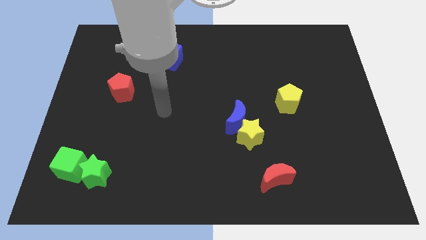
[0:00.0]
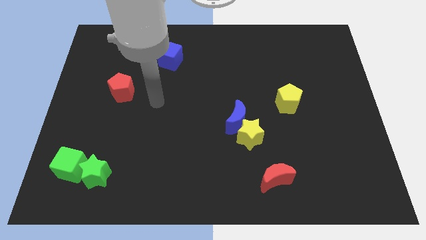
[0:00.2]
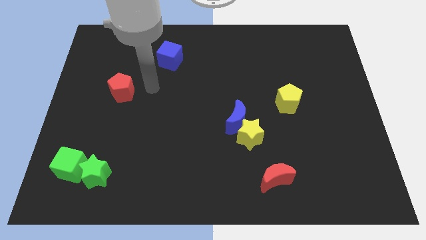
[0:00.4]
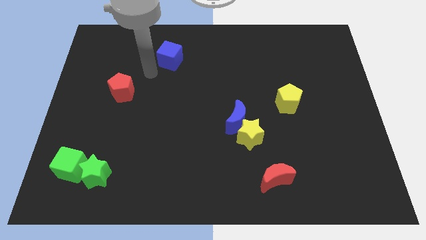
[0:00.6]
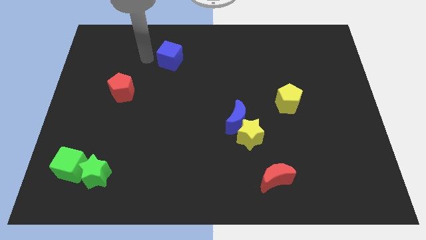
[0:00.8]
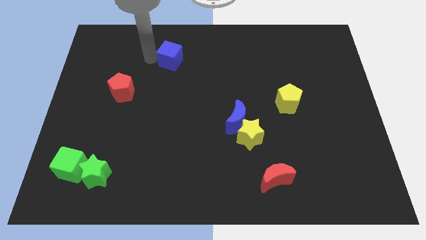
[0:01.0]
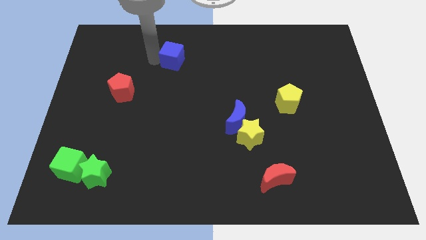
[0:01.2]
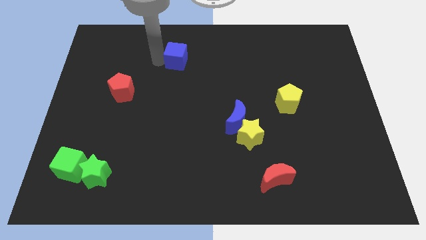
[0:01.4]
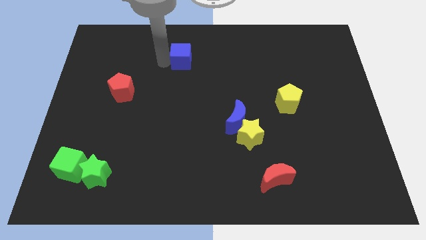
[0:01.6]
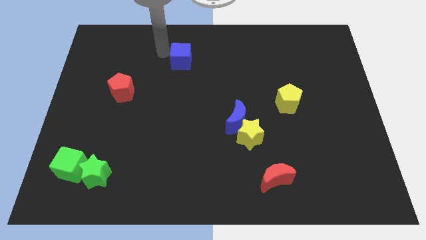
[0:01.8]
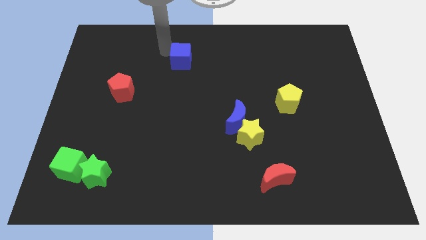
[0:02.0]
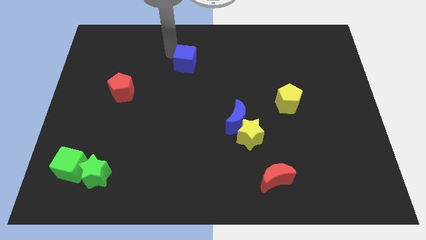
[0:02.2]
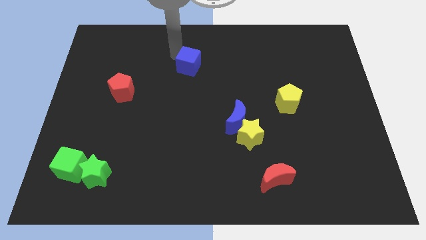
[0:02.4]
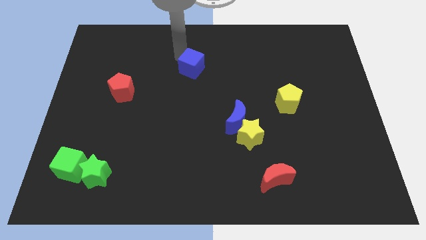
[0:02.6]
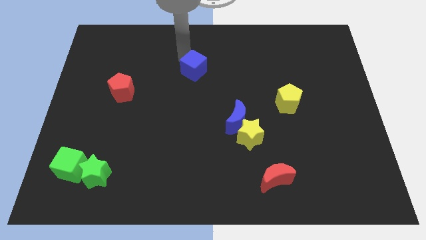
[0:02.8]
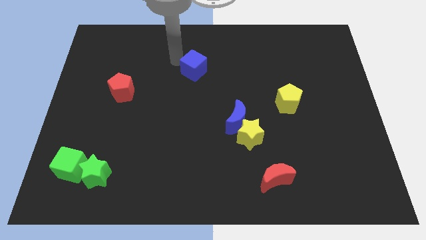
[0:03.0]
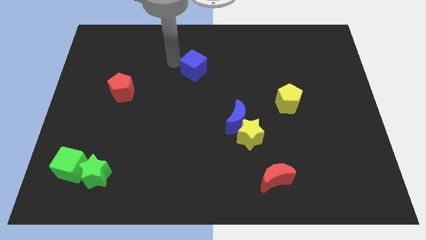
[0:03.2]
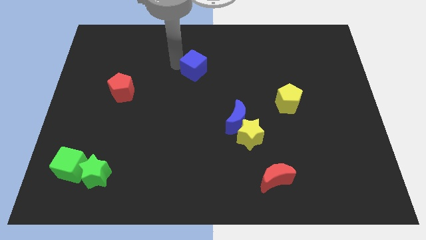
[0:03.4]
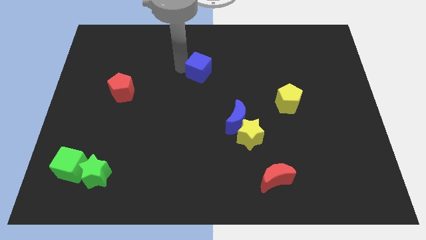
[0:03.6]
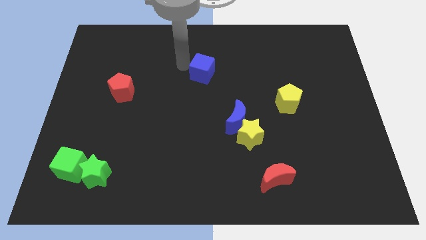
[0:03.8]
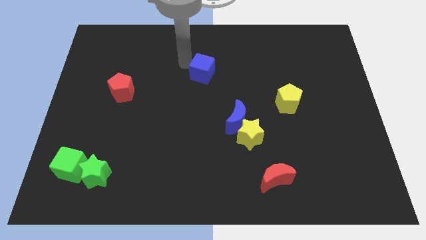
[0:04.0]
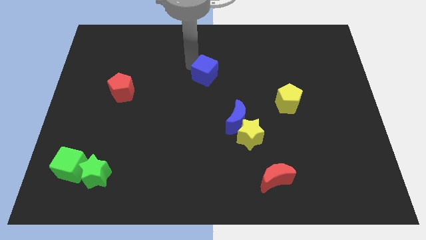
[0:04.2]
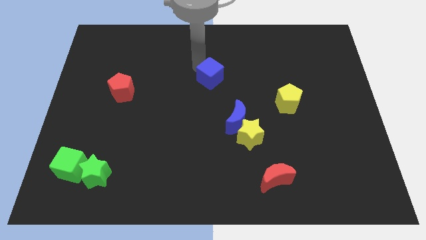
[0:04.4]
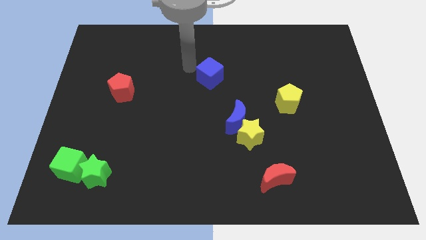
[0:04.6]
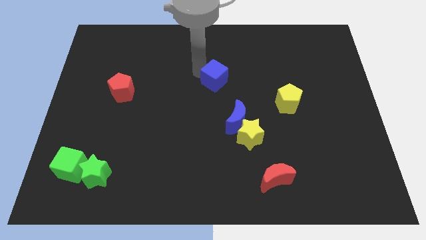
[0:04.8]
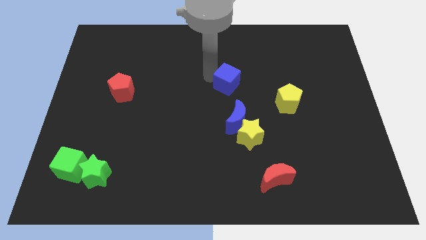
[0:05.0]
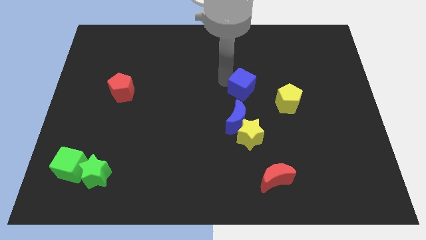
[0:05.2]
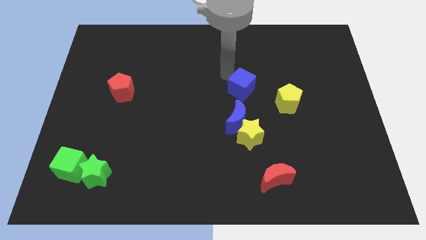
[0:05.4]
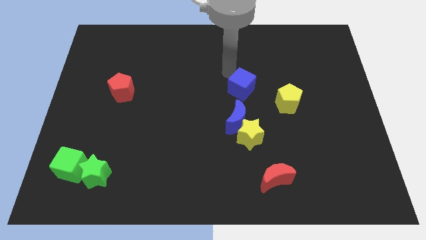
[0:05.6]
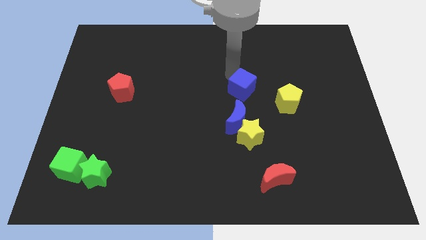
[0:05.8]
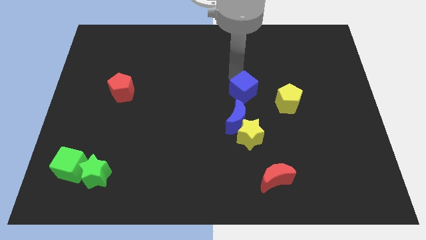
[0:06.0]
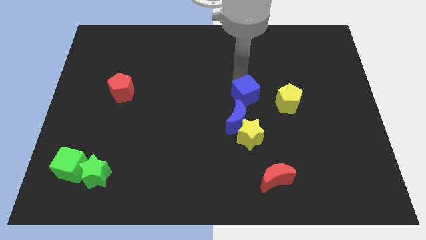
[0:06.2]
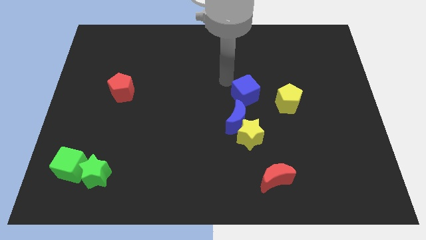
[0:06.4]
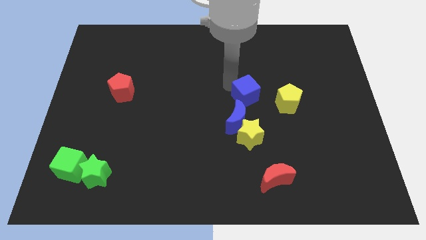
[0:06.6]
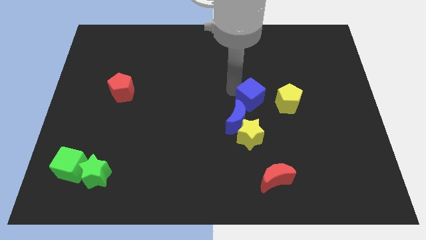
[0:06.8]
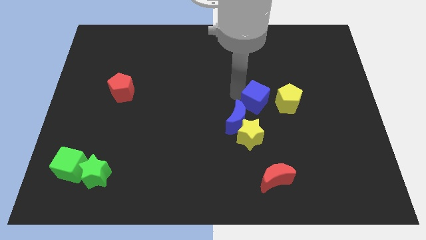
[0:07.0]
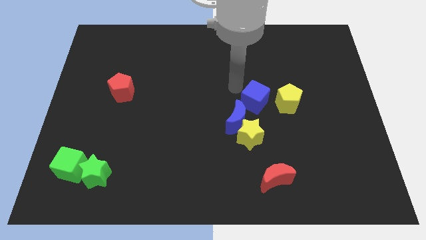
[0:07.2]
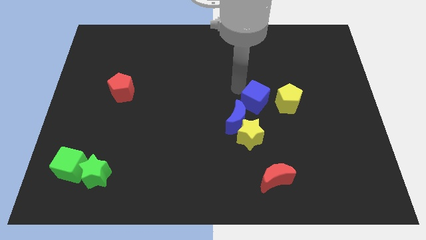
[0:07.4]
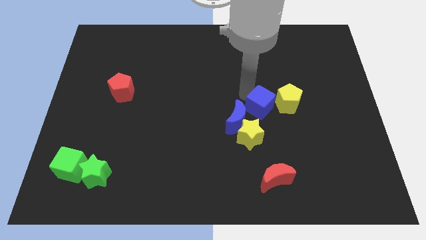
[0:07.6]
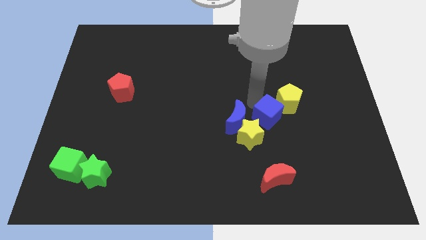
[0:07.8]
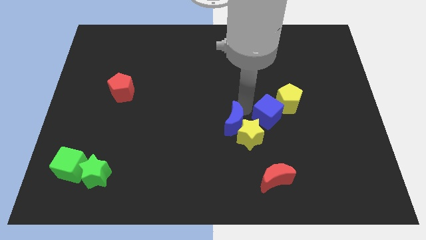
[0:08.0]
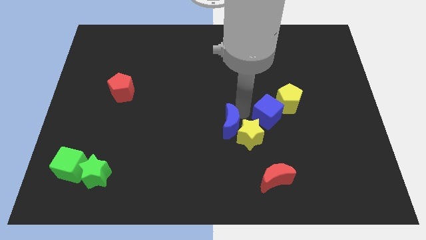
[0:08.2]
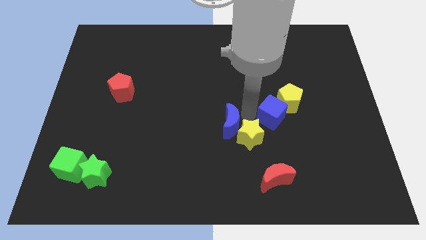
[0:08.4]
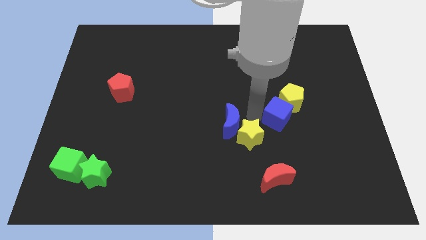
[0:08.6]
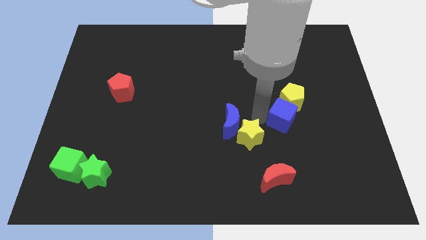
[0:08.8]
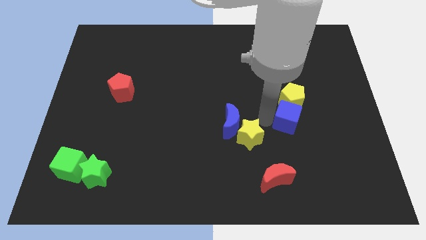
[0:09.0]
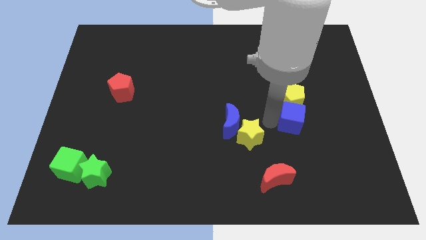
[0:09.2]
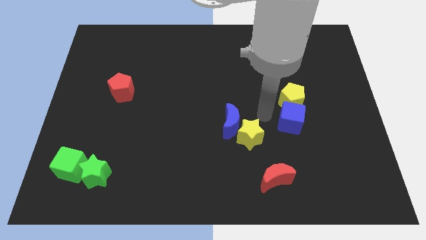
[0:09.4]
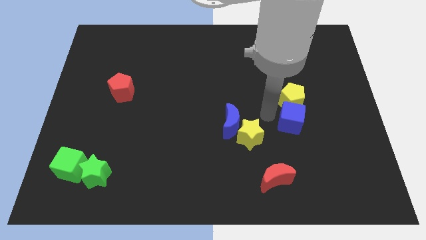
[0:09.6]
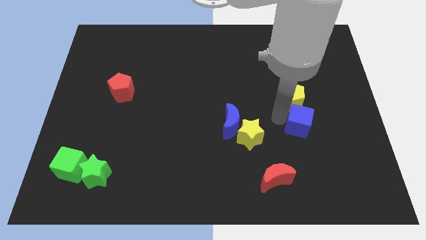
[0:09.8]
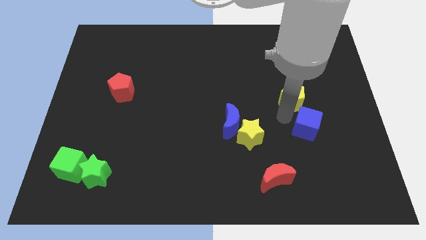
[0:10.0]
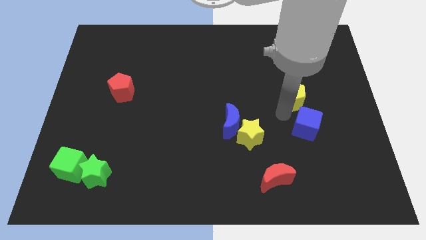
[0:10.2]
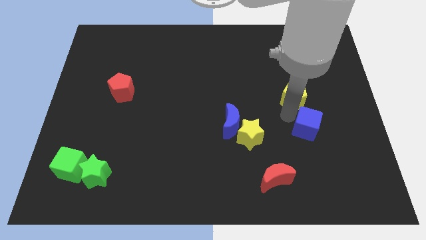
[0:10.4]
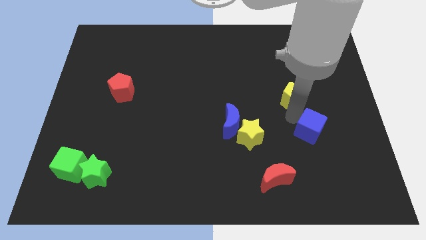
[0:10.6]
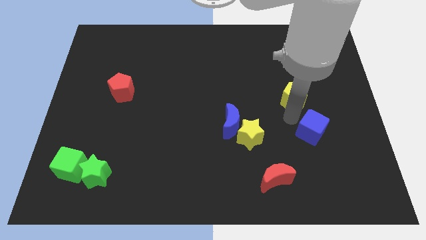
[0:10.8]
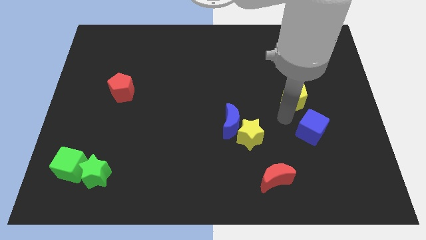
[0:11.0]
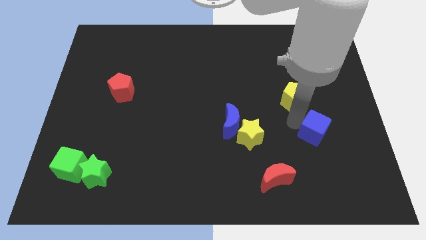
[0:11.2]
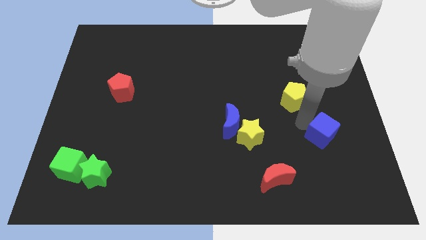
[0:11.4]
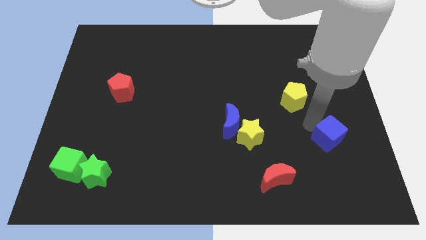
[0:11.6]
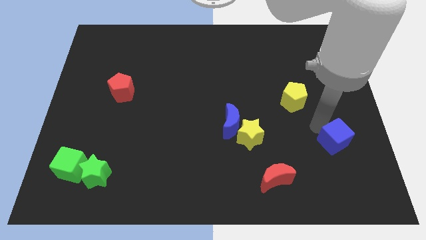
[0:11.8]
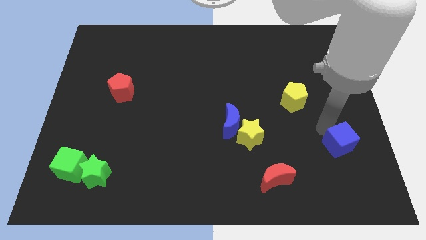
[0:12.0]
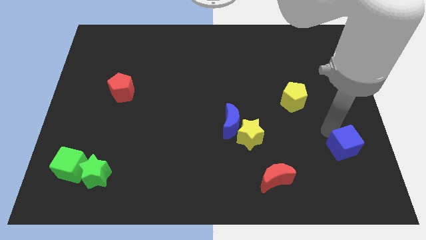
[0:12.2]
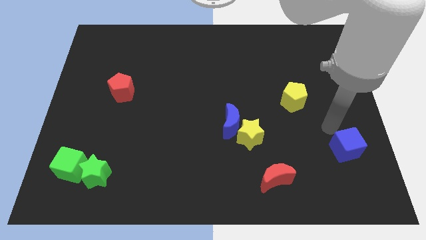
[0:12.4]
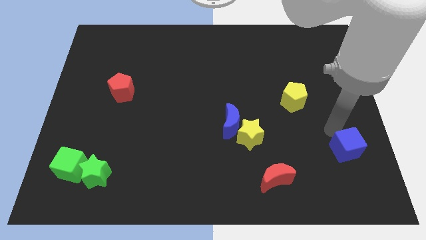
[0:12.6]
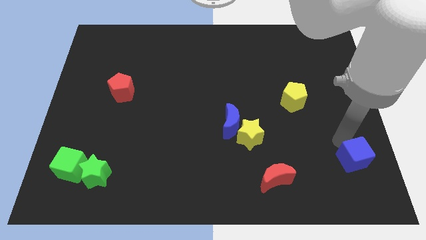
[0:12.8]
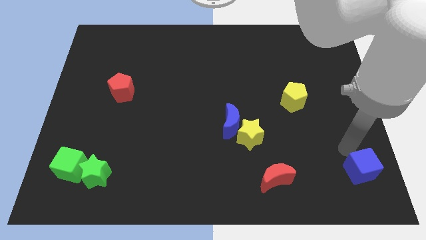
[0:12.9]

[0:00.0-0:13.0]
push the blue cube to the lower right corner
